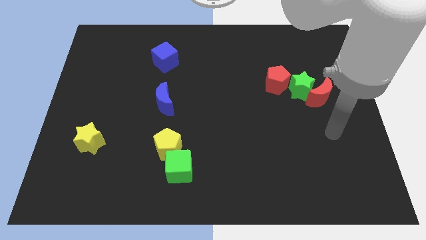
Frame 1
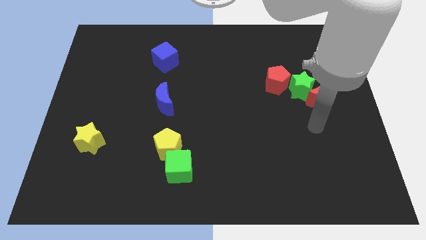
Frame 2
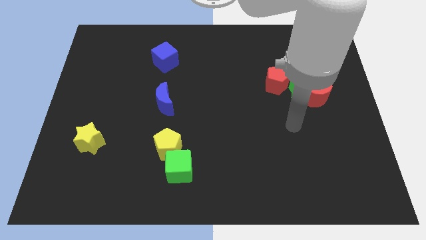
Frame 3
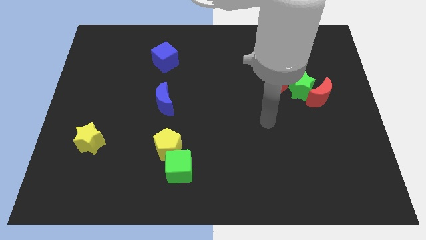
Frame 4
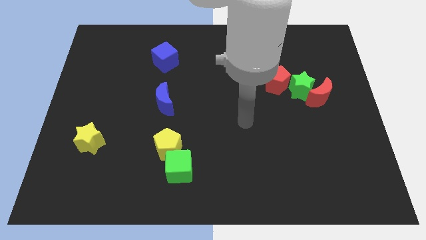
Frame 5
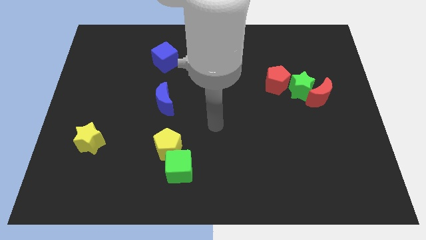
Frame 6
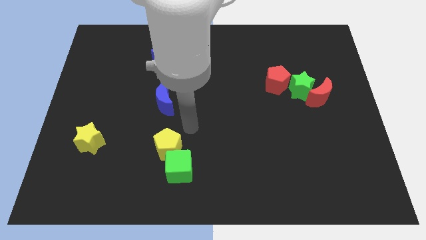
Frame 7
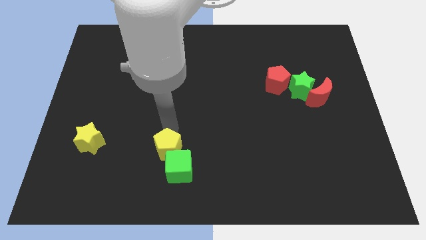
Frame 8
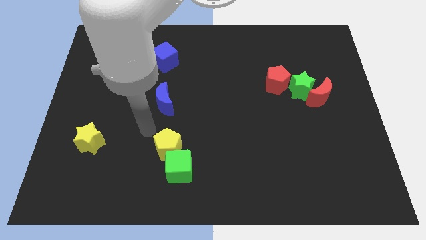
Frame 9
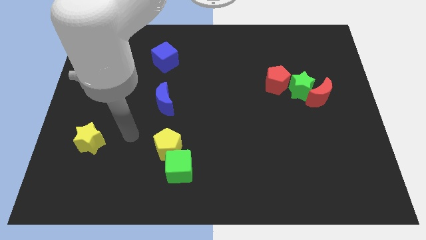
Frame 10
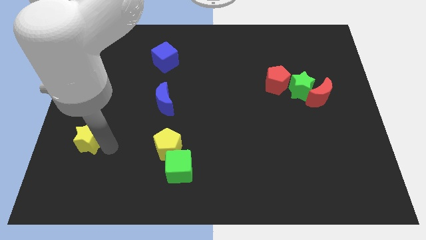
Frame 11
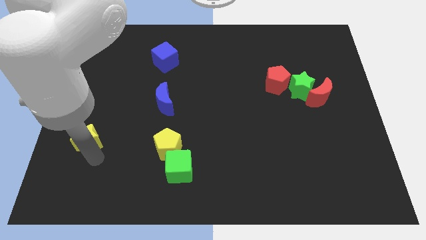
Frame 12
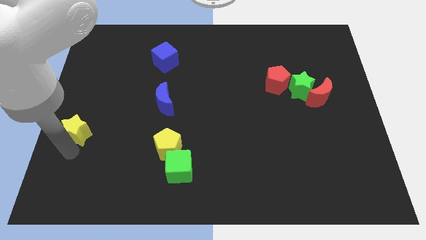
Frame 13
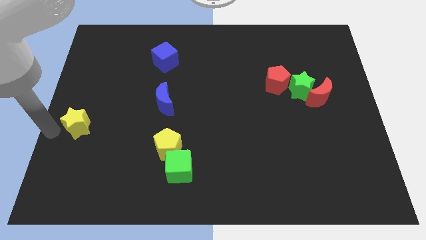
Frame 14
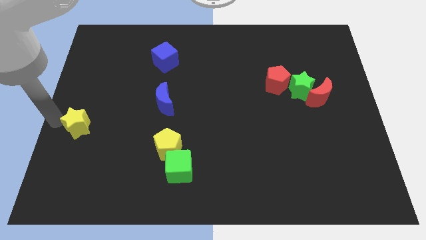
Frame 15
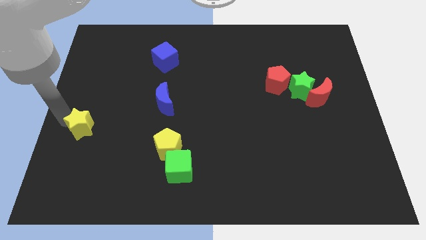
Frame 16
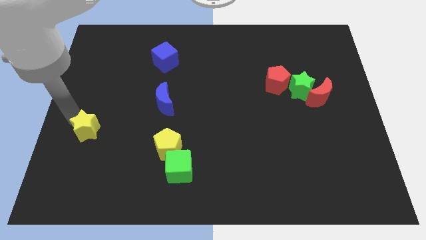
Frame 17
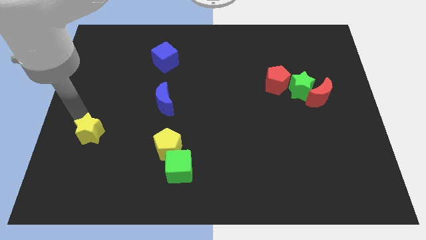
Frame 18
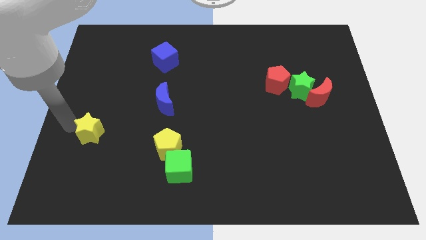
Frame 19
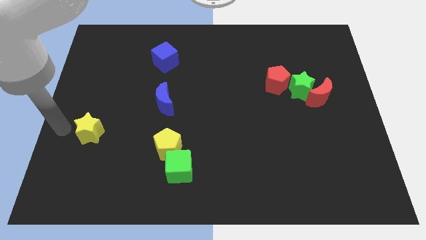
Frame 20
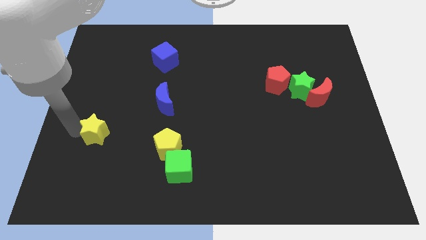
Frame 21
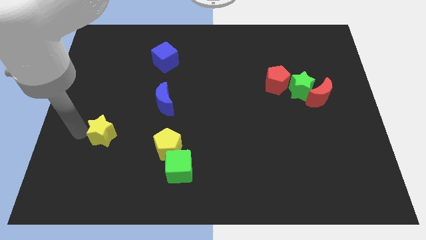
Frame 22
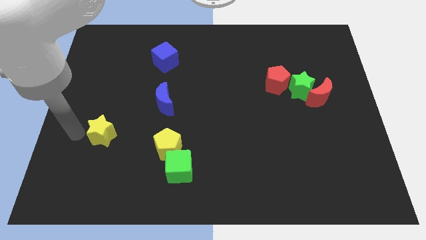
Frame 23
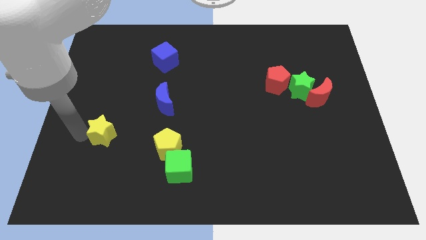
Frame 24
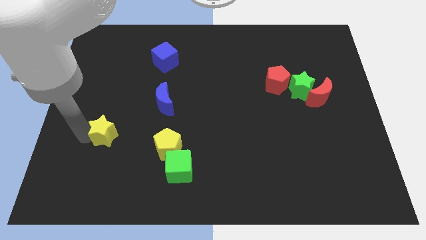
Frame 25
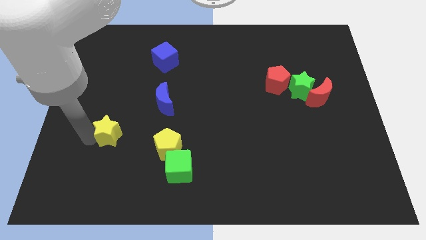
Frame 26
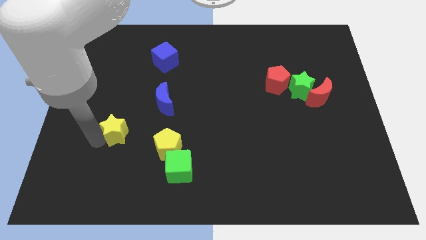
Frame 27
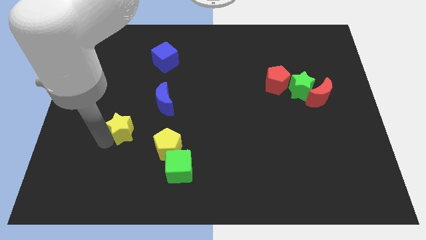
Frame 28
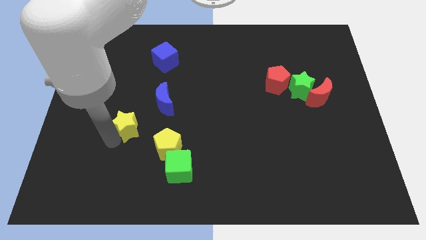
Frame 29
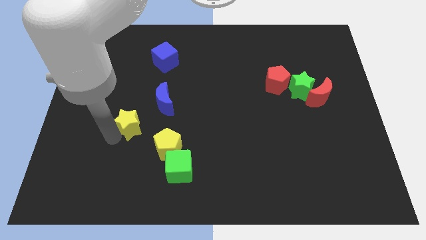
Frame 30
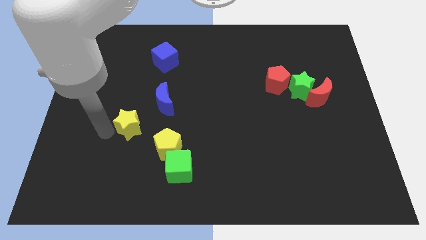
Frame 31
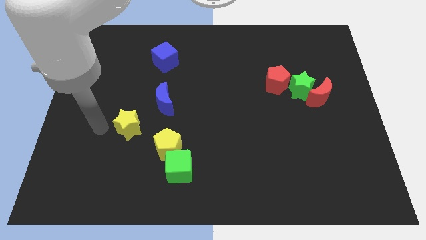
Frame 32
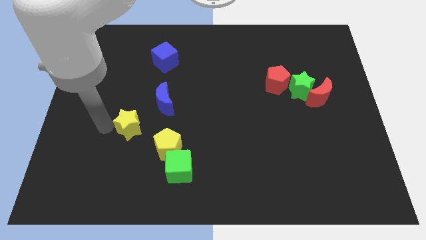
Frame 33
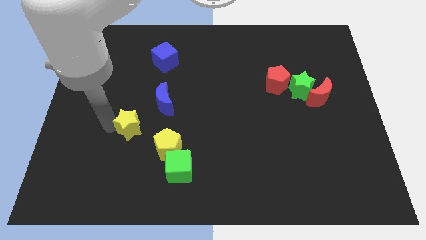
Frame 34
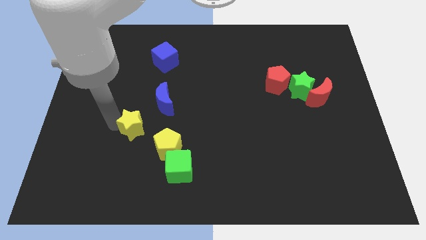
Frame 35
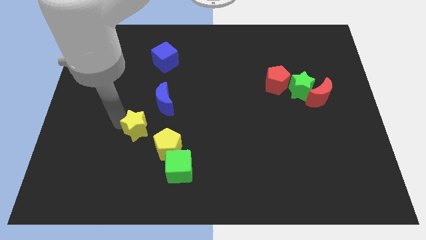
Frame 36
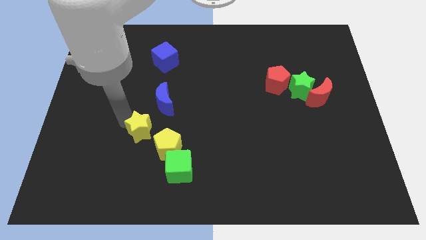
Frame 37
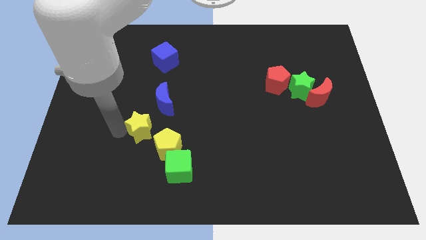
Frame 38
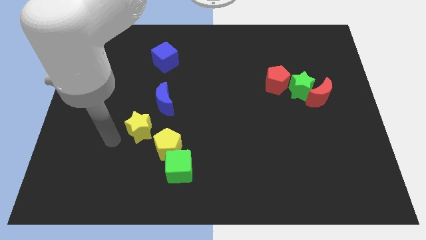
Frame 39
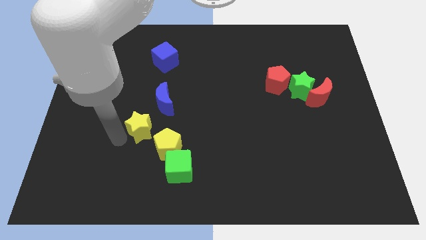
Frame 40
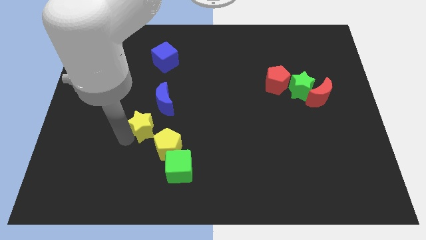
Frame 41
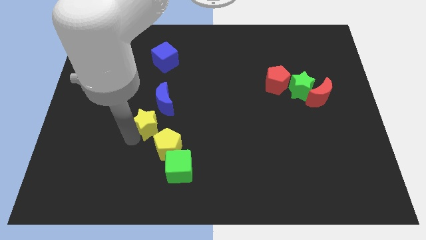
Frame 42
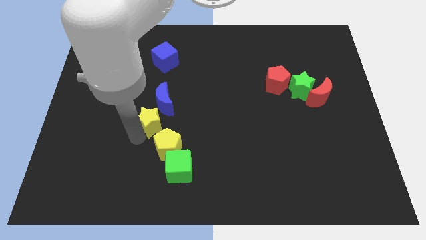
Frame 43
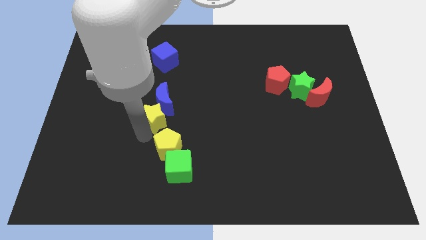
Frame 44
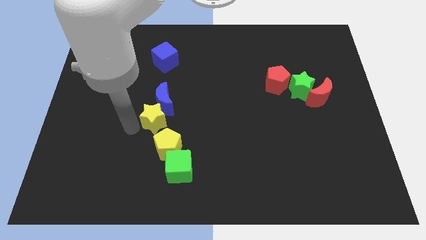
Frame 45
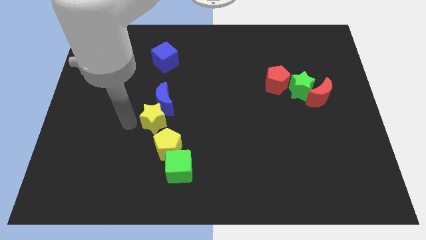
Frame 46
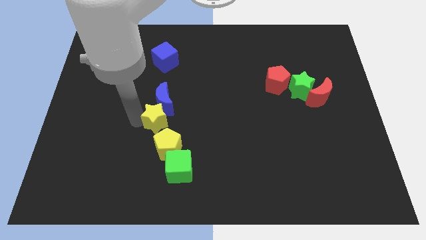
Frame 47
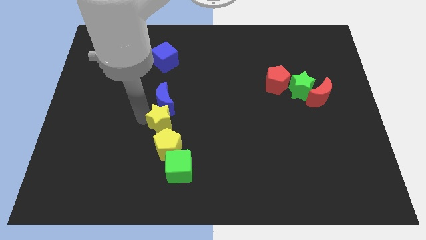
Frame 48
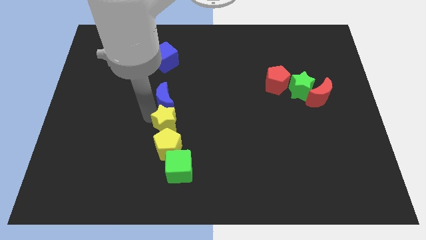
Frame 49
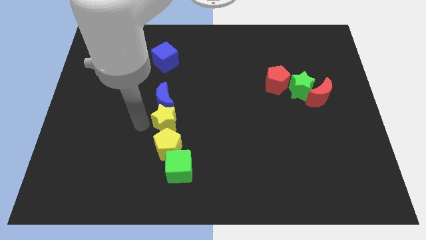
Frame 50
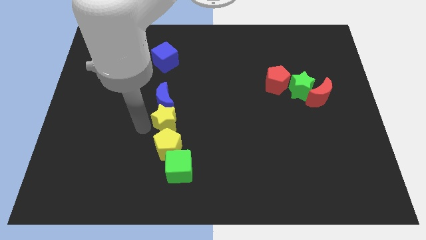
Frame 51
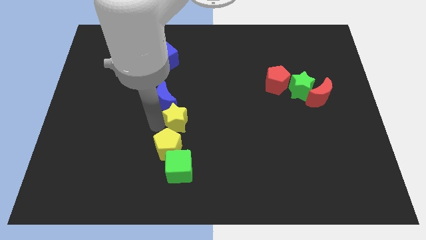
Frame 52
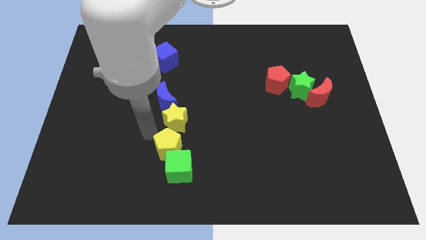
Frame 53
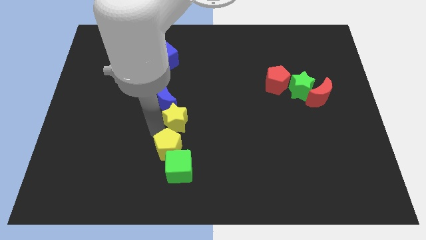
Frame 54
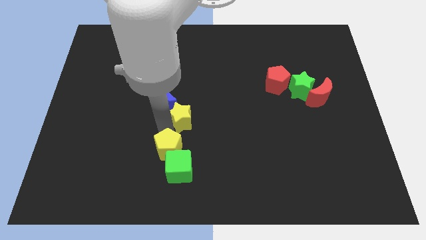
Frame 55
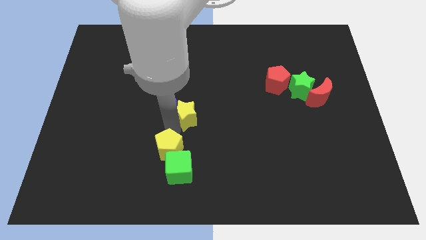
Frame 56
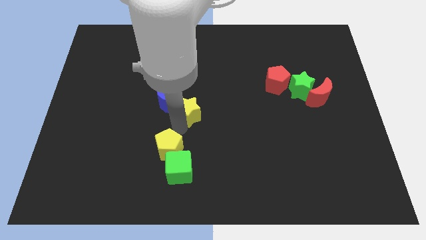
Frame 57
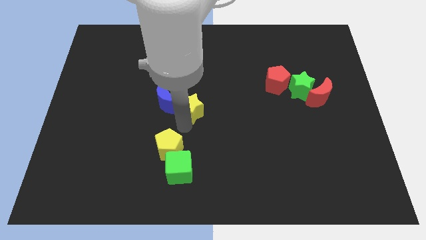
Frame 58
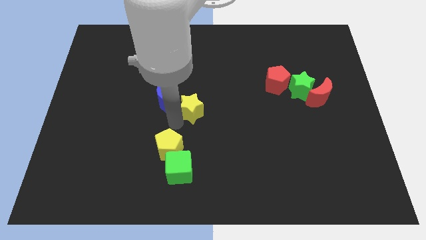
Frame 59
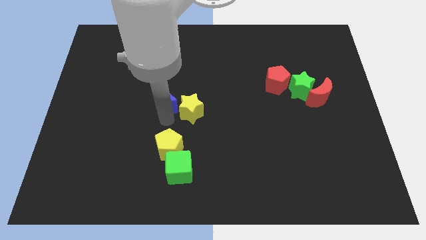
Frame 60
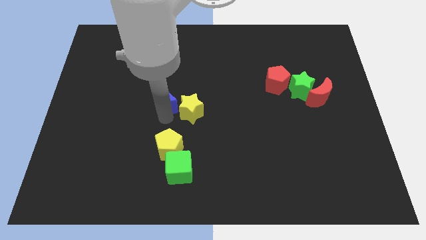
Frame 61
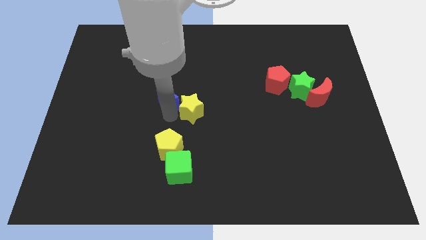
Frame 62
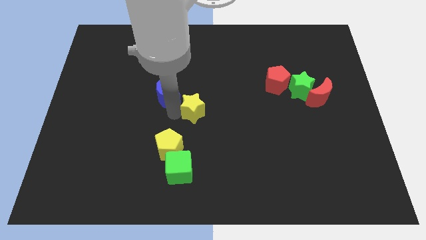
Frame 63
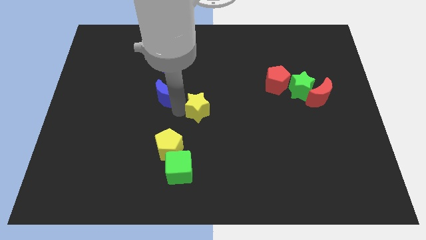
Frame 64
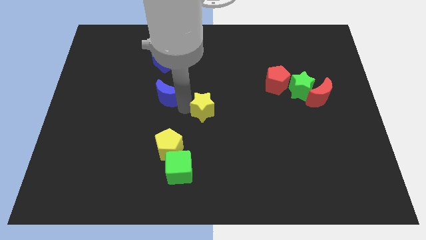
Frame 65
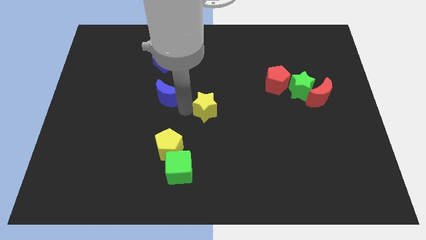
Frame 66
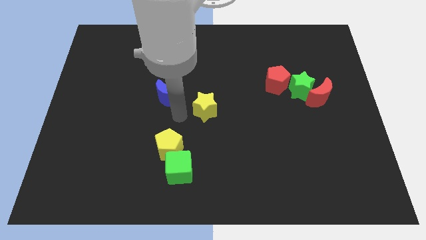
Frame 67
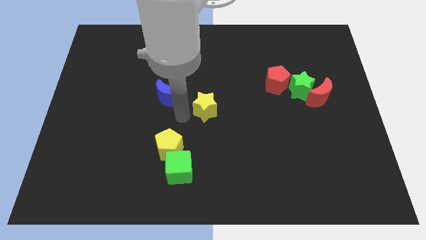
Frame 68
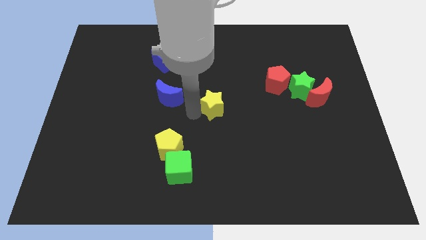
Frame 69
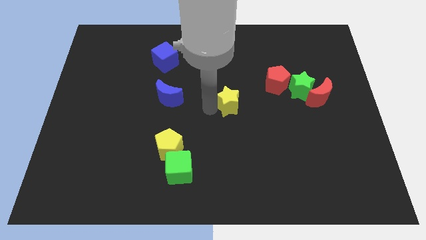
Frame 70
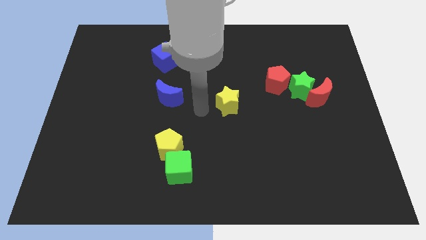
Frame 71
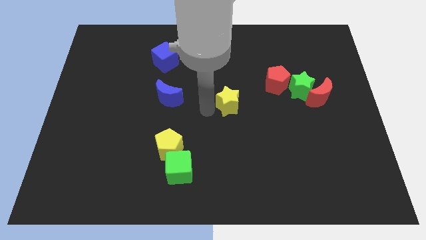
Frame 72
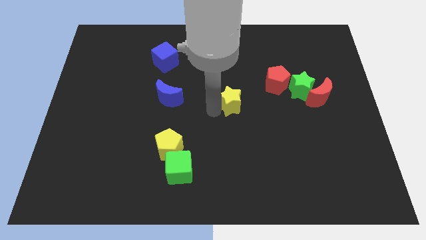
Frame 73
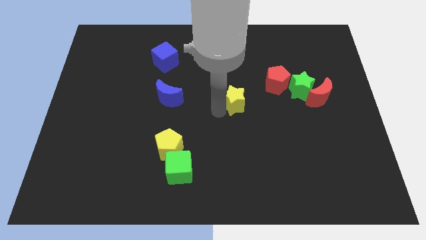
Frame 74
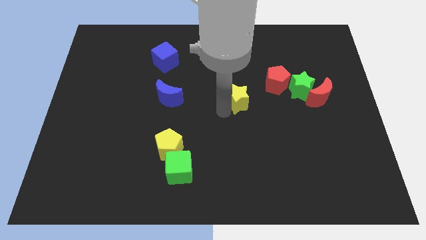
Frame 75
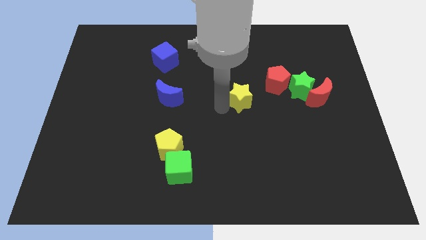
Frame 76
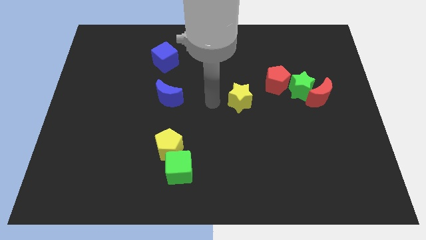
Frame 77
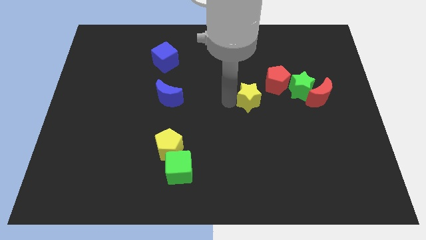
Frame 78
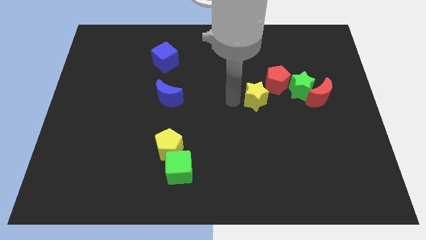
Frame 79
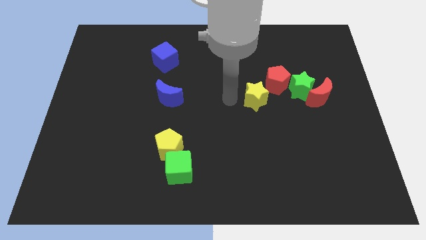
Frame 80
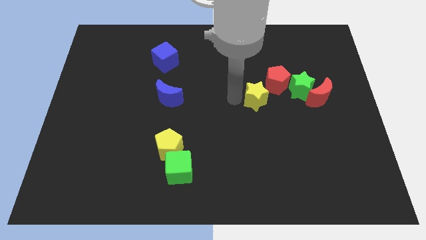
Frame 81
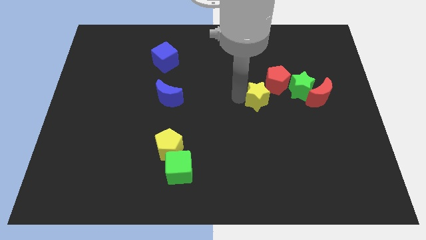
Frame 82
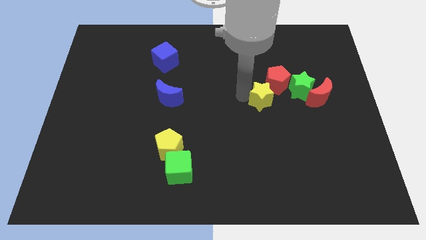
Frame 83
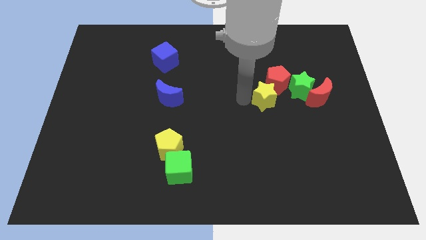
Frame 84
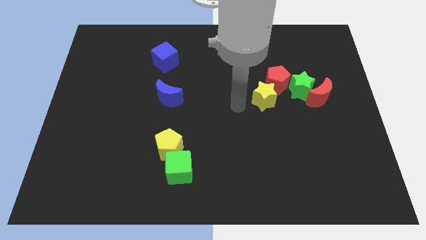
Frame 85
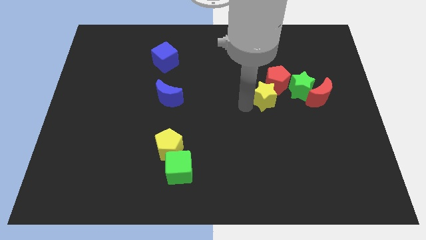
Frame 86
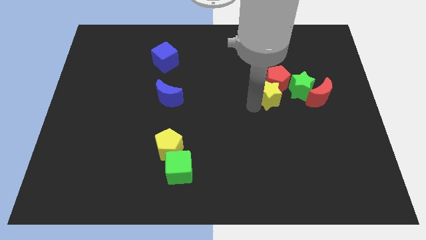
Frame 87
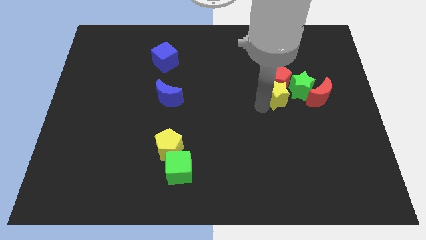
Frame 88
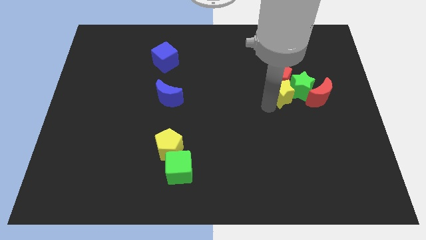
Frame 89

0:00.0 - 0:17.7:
move the yellow star close to the green star
